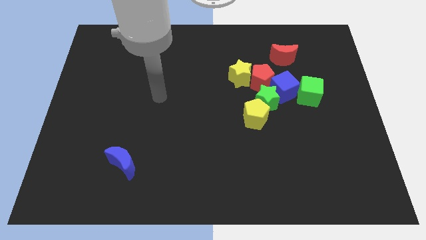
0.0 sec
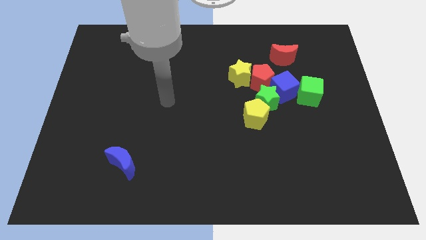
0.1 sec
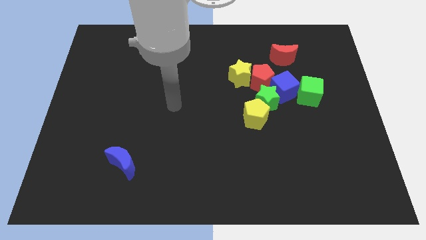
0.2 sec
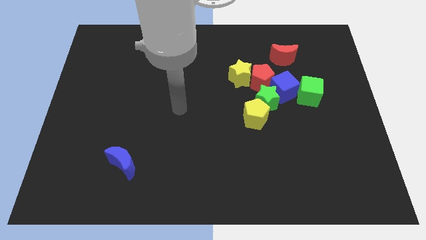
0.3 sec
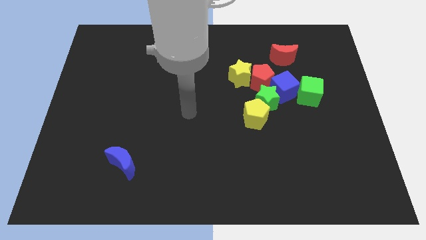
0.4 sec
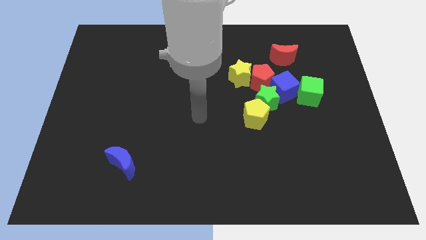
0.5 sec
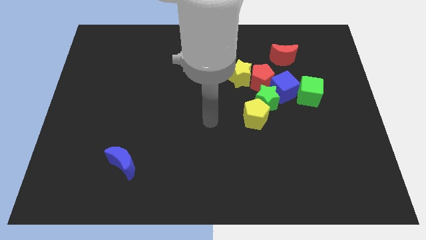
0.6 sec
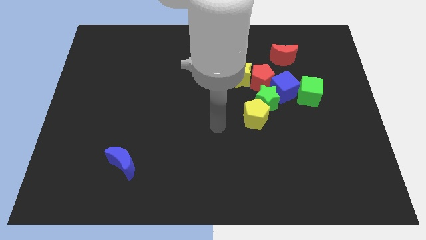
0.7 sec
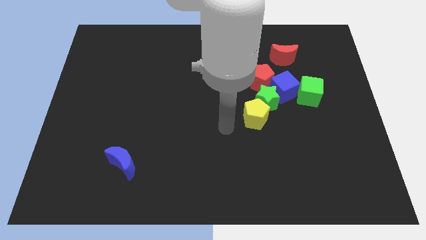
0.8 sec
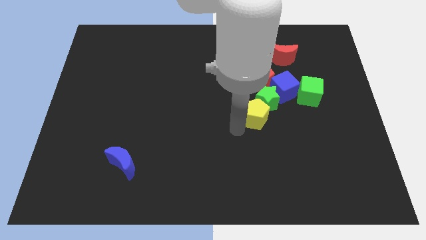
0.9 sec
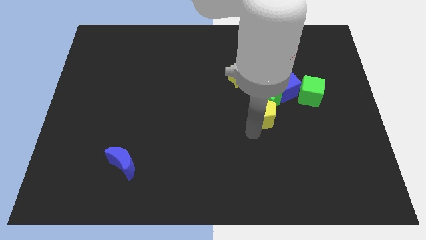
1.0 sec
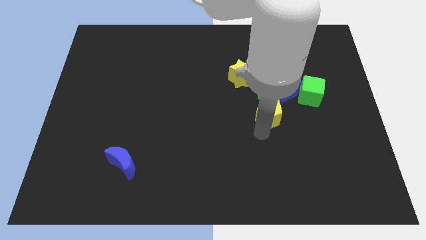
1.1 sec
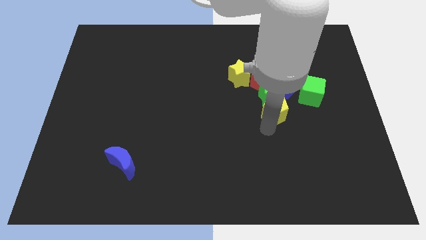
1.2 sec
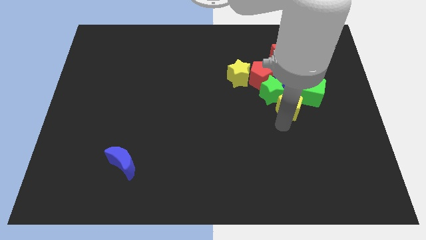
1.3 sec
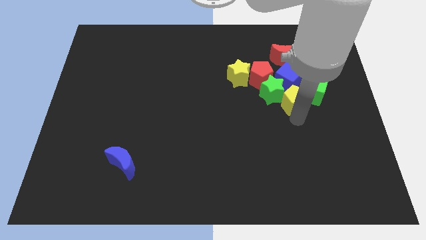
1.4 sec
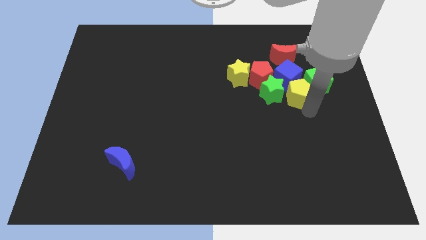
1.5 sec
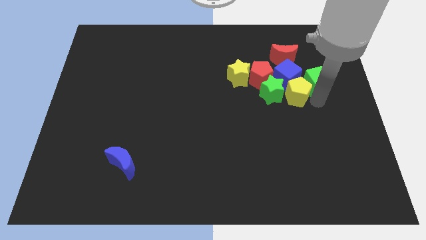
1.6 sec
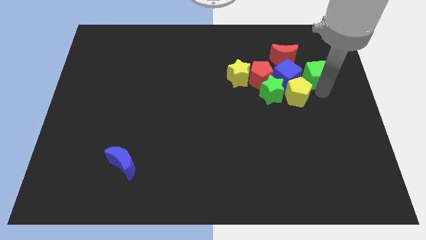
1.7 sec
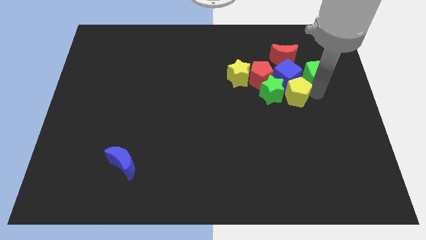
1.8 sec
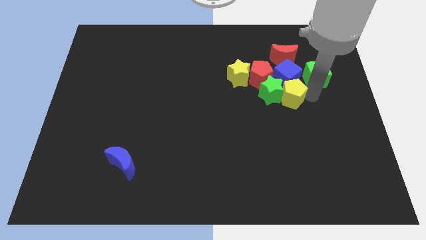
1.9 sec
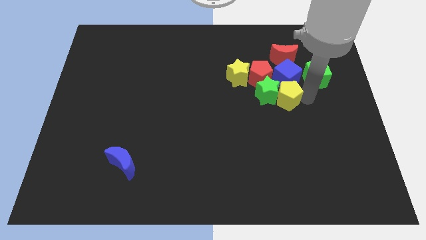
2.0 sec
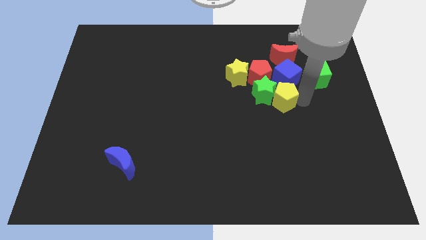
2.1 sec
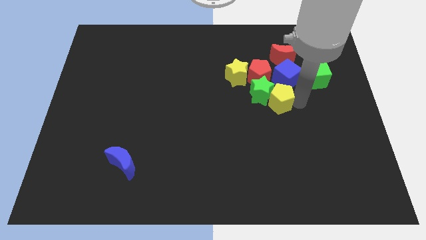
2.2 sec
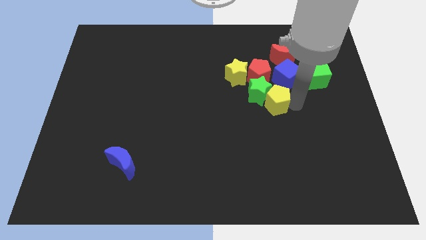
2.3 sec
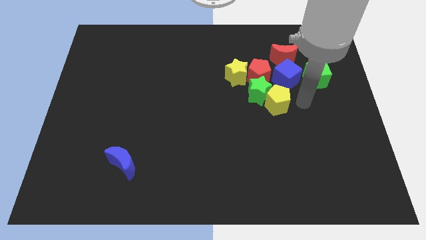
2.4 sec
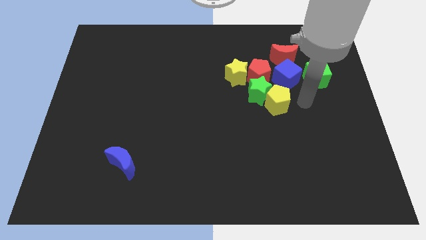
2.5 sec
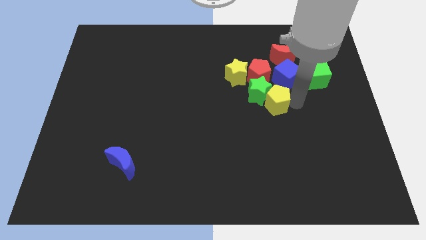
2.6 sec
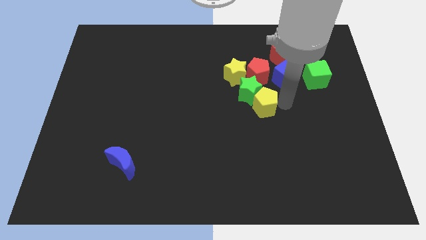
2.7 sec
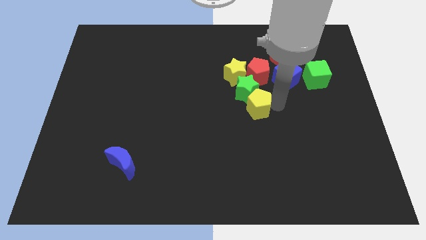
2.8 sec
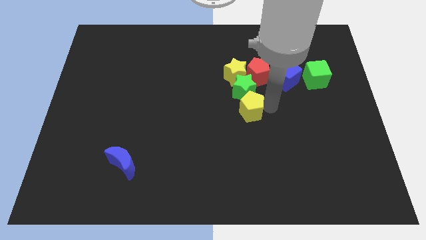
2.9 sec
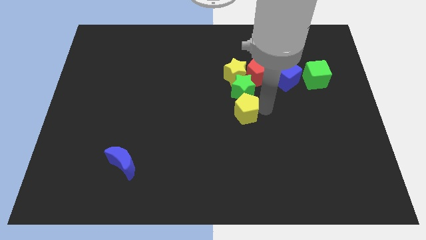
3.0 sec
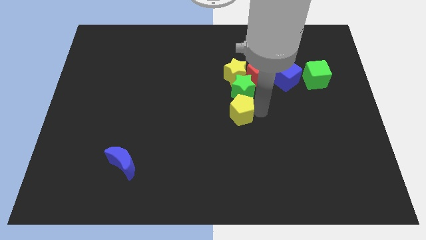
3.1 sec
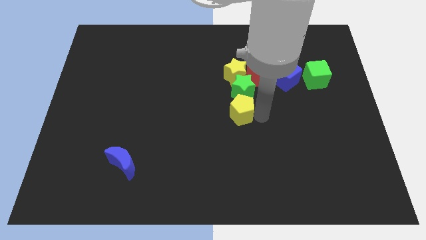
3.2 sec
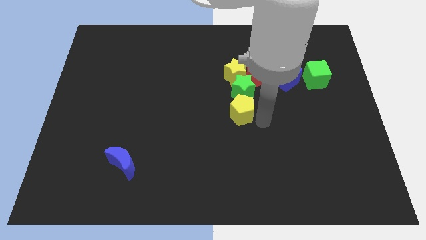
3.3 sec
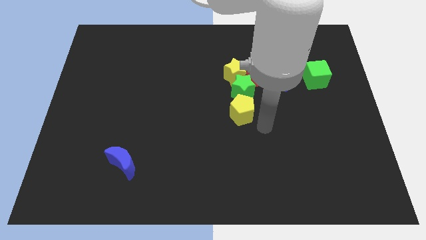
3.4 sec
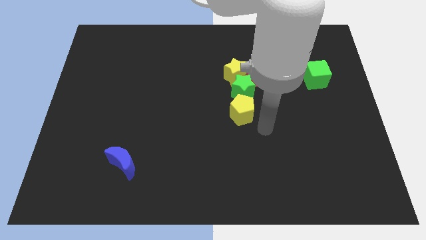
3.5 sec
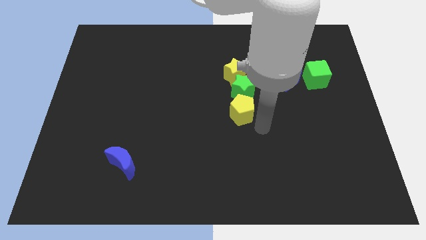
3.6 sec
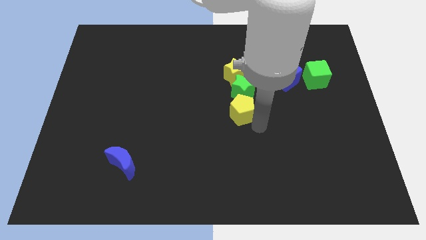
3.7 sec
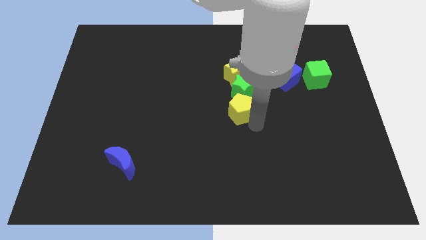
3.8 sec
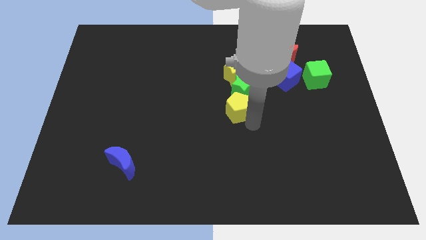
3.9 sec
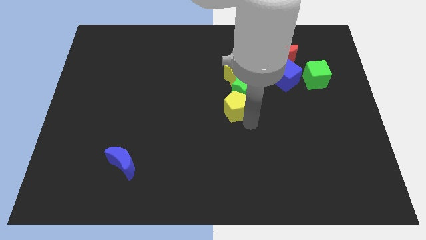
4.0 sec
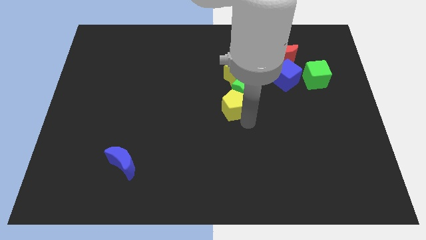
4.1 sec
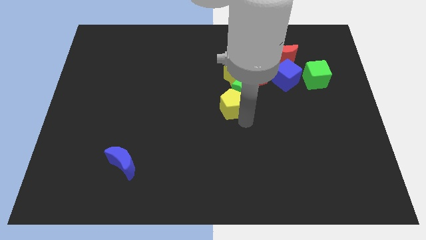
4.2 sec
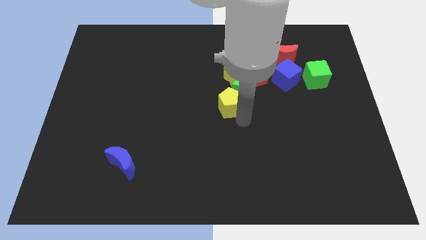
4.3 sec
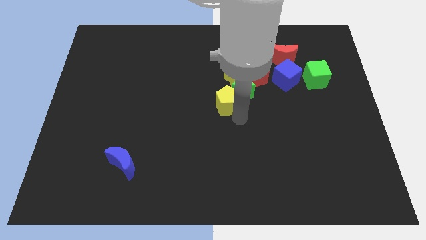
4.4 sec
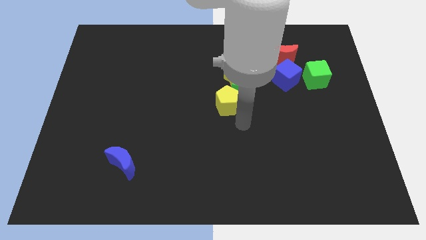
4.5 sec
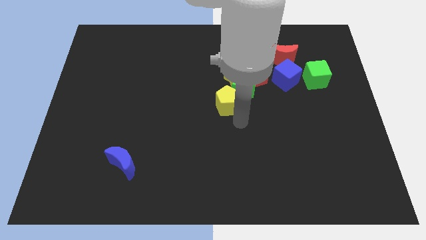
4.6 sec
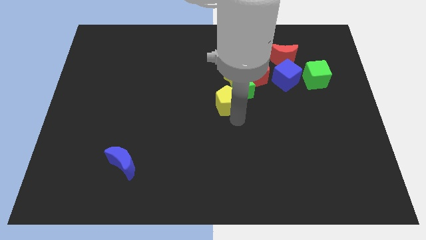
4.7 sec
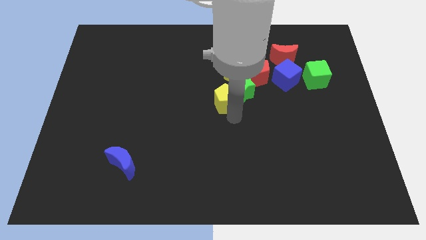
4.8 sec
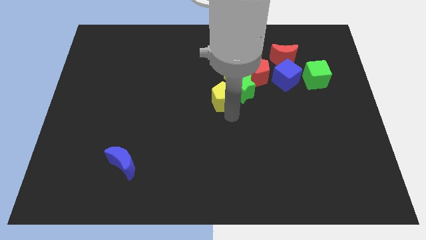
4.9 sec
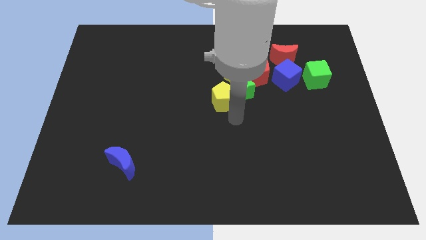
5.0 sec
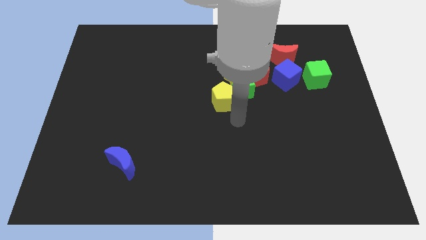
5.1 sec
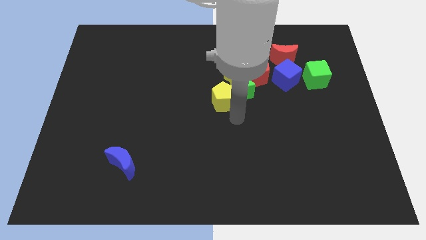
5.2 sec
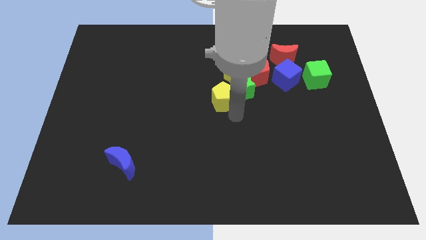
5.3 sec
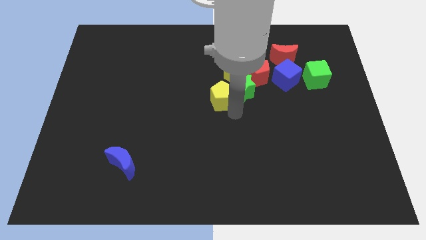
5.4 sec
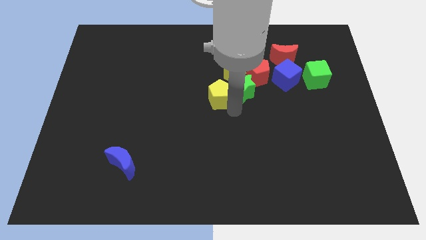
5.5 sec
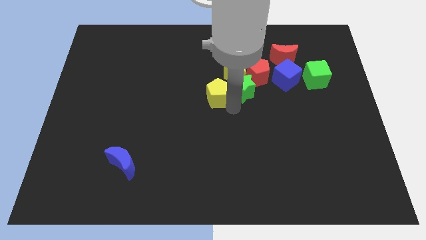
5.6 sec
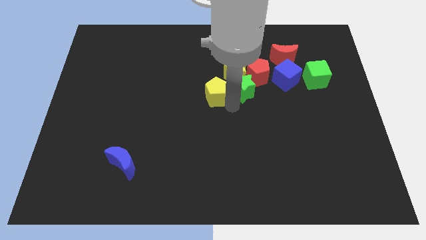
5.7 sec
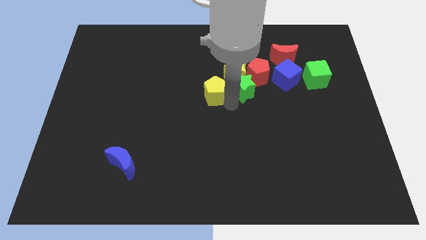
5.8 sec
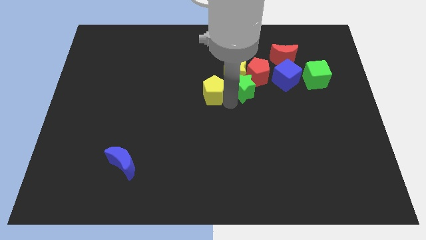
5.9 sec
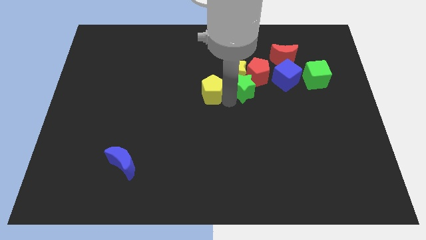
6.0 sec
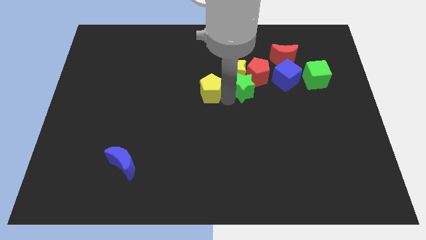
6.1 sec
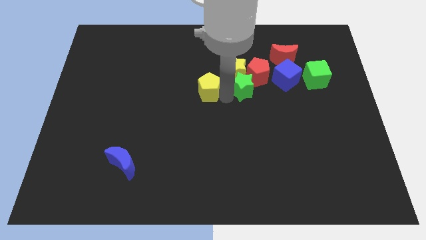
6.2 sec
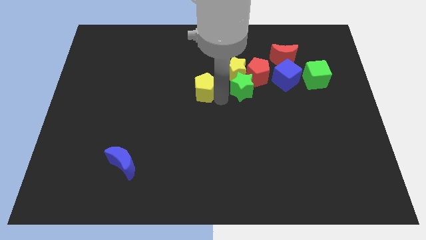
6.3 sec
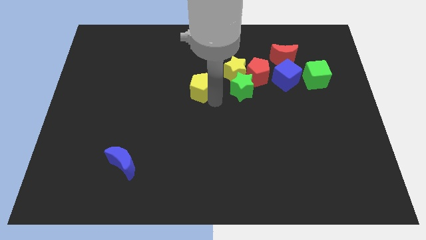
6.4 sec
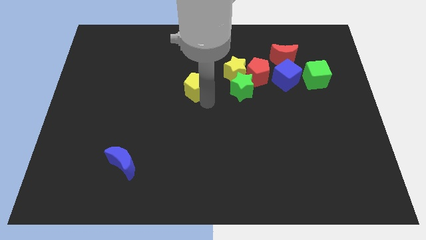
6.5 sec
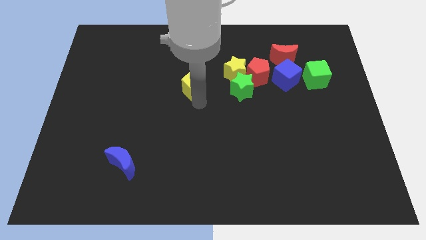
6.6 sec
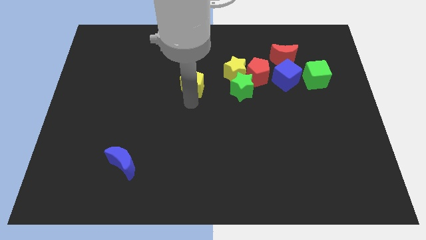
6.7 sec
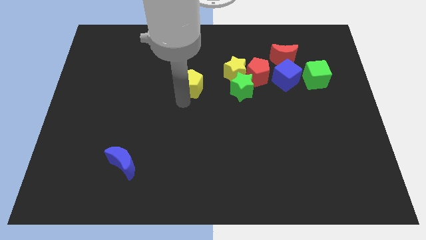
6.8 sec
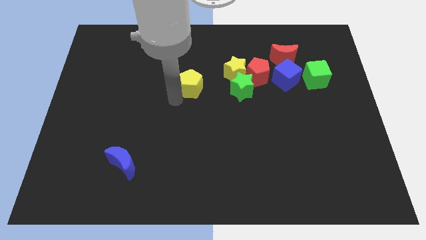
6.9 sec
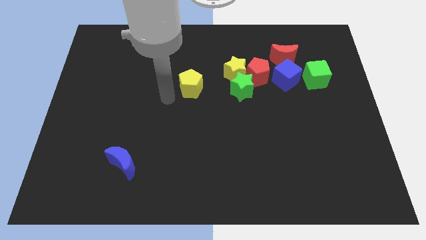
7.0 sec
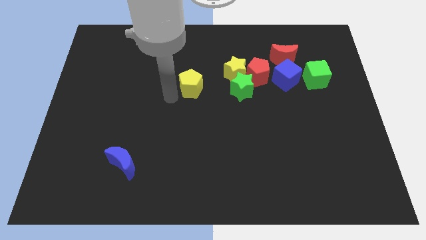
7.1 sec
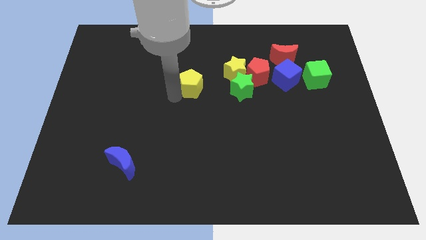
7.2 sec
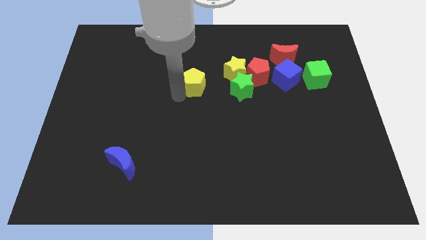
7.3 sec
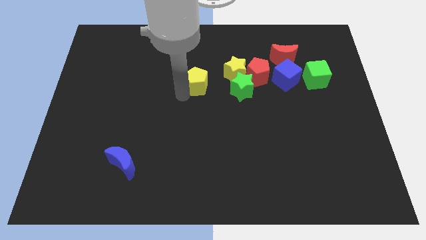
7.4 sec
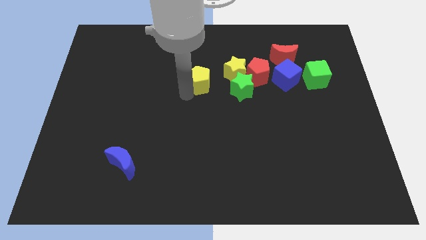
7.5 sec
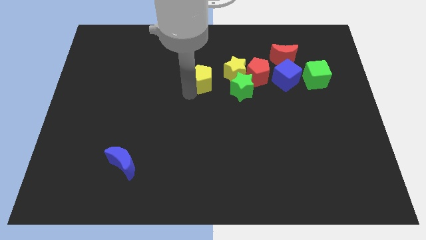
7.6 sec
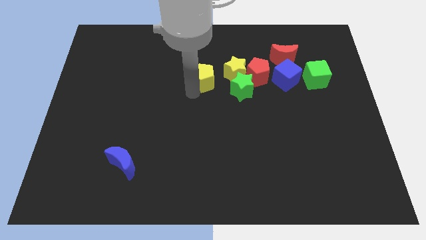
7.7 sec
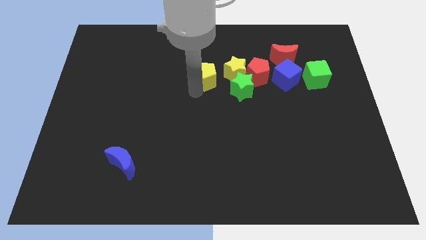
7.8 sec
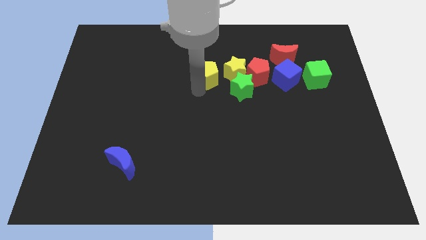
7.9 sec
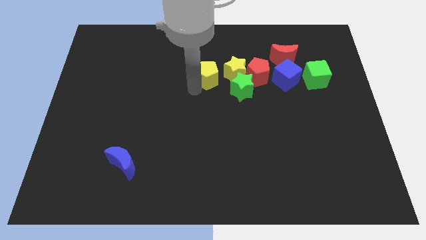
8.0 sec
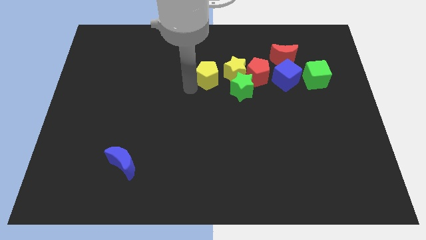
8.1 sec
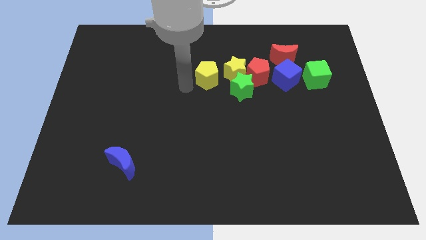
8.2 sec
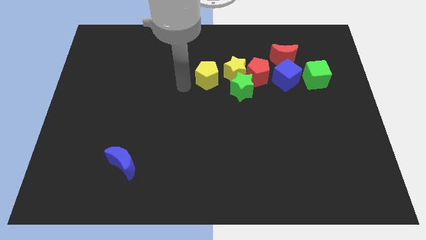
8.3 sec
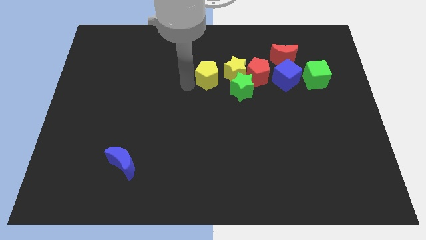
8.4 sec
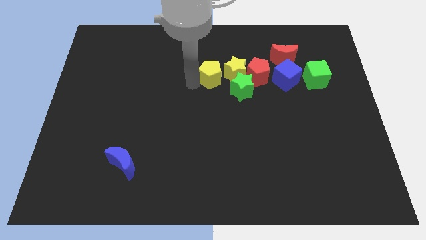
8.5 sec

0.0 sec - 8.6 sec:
slide the yellow pentagon up a little bit
